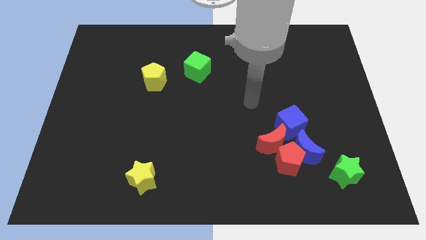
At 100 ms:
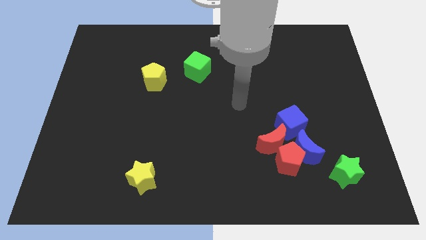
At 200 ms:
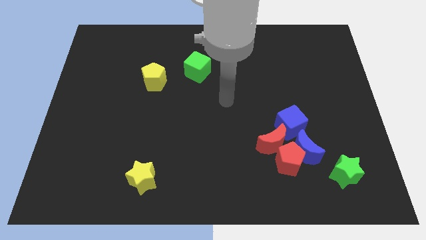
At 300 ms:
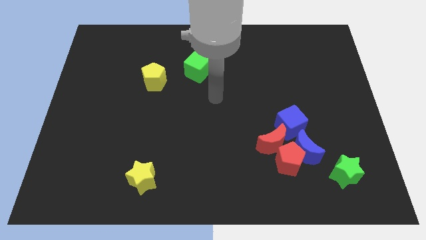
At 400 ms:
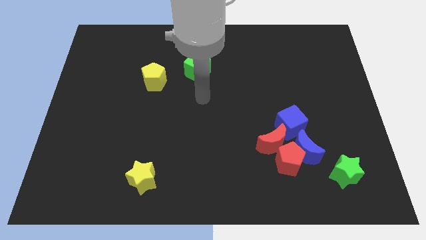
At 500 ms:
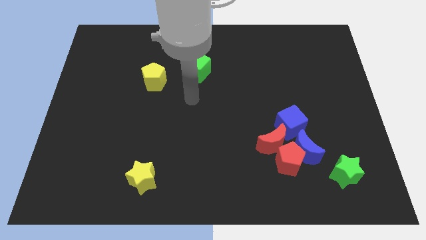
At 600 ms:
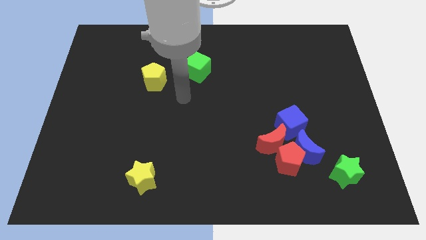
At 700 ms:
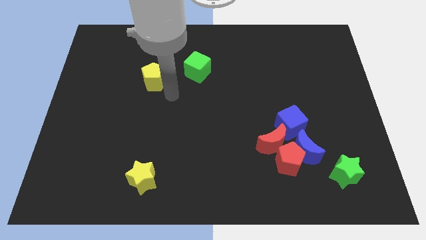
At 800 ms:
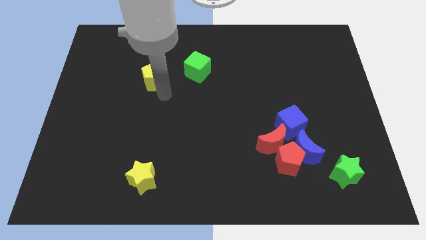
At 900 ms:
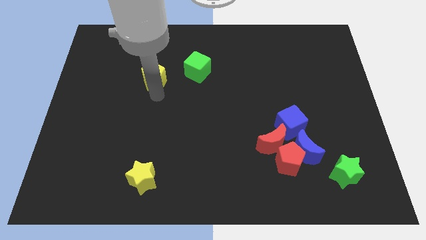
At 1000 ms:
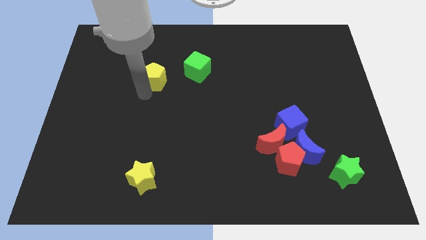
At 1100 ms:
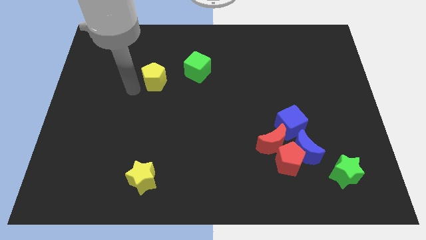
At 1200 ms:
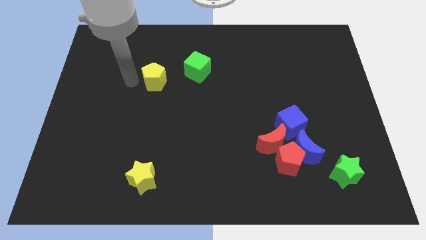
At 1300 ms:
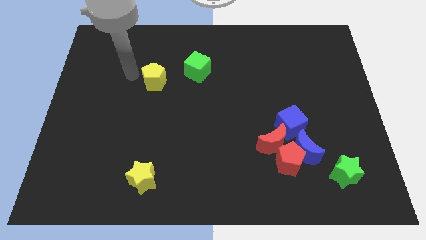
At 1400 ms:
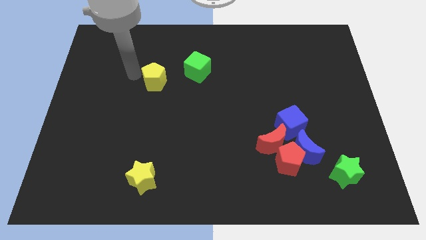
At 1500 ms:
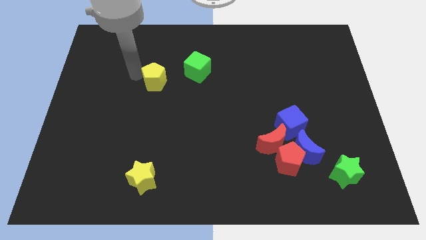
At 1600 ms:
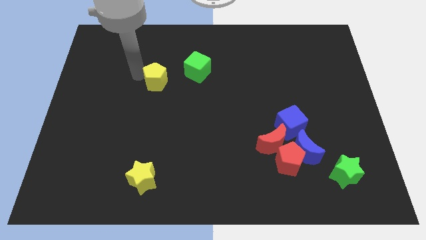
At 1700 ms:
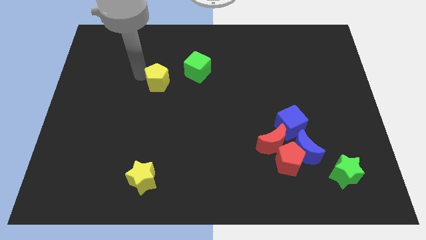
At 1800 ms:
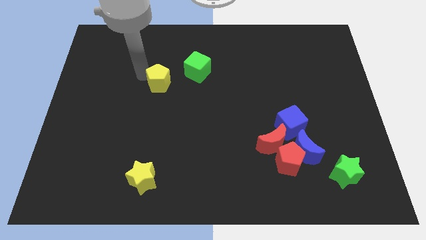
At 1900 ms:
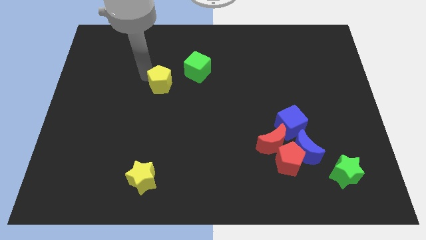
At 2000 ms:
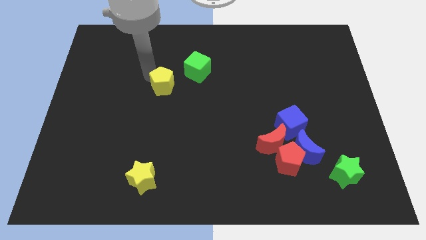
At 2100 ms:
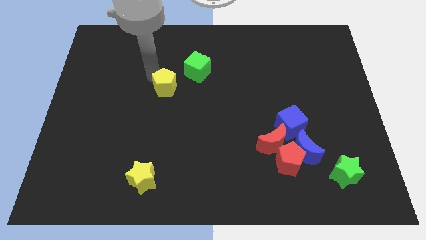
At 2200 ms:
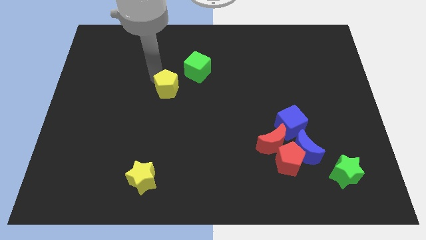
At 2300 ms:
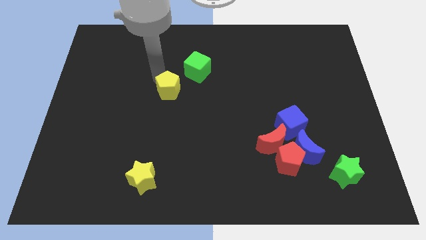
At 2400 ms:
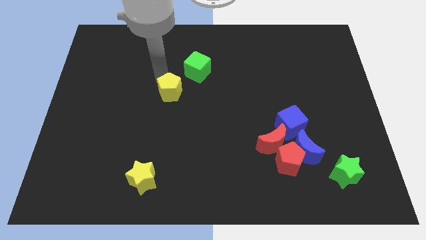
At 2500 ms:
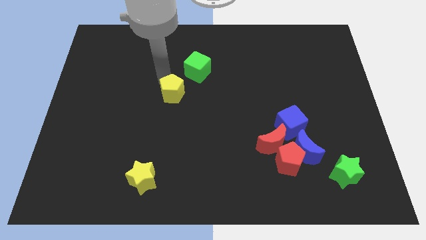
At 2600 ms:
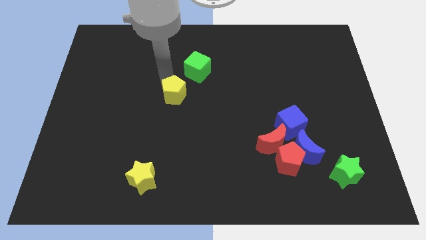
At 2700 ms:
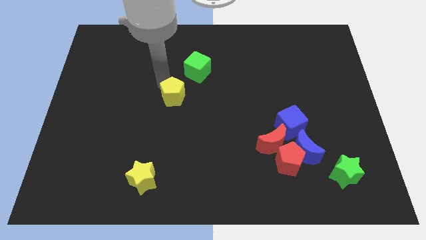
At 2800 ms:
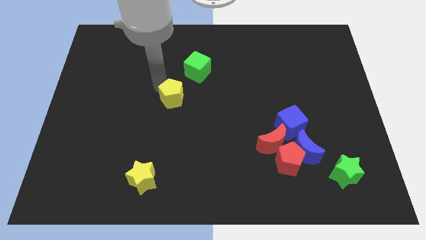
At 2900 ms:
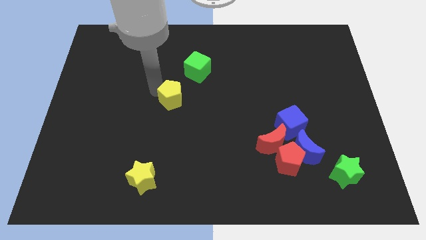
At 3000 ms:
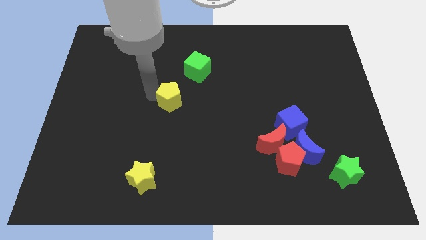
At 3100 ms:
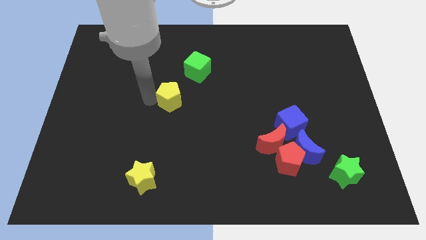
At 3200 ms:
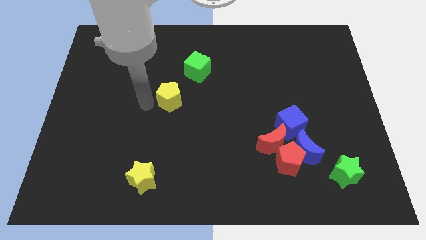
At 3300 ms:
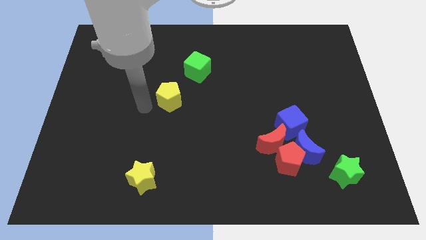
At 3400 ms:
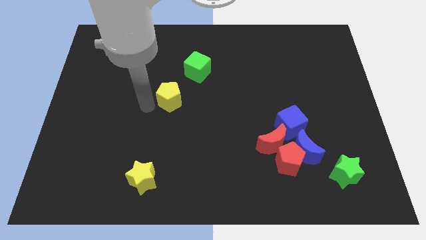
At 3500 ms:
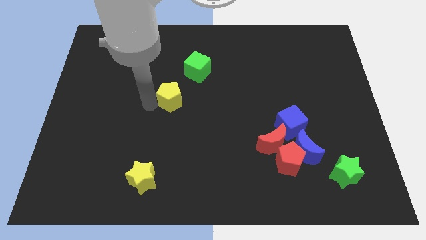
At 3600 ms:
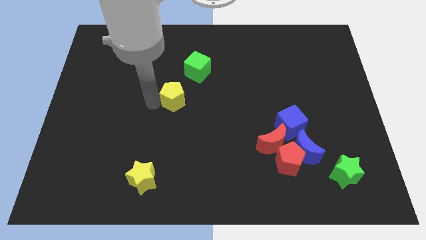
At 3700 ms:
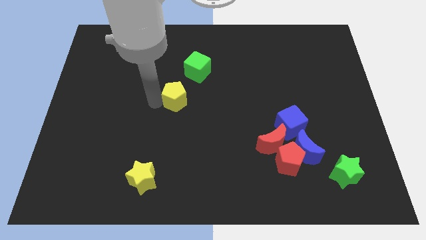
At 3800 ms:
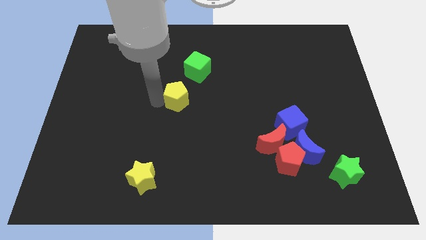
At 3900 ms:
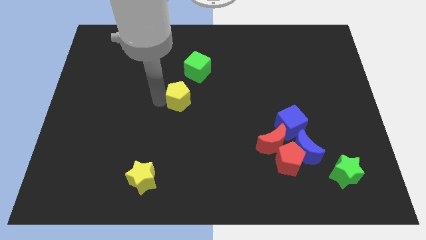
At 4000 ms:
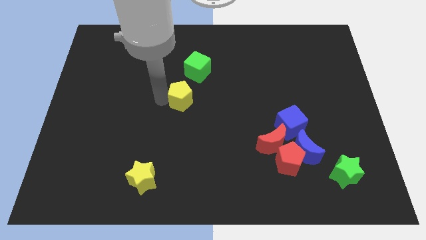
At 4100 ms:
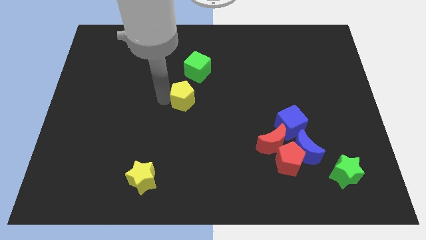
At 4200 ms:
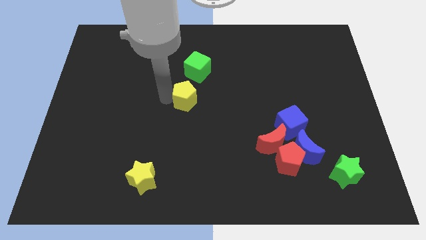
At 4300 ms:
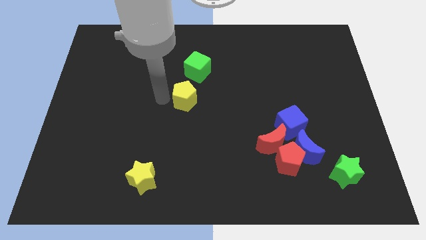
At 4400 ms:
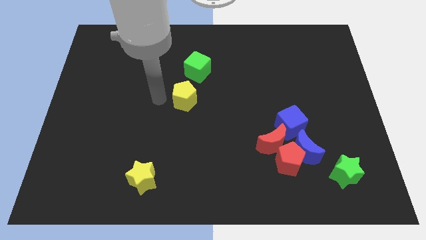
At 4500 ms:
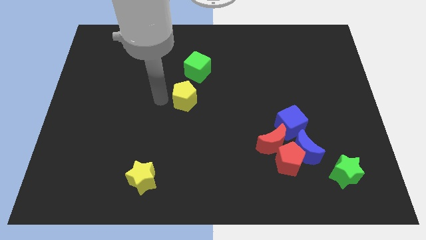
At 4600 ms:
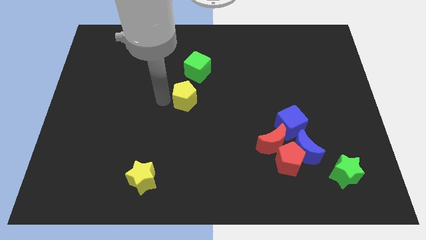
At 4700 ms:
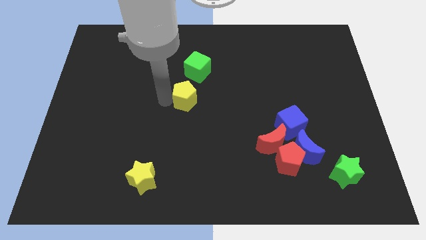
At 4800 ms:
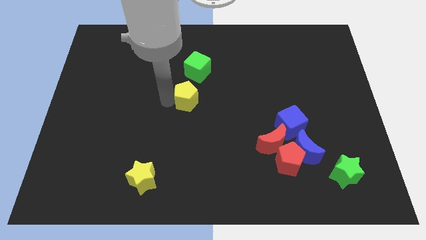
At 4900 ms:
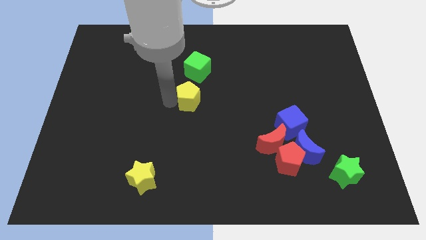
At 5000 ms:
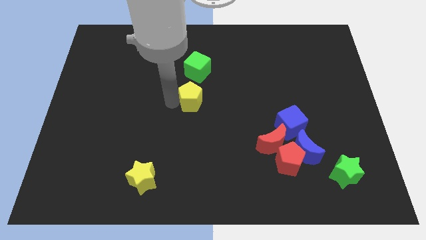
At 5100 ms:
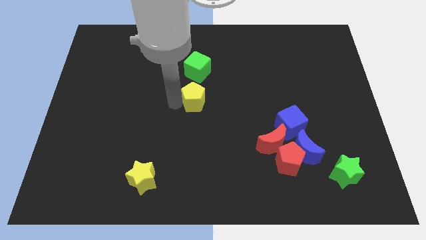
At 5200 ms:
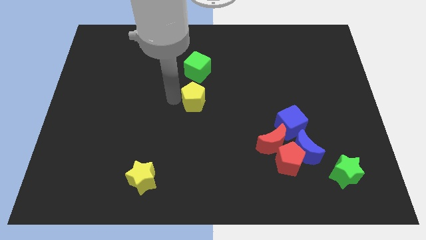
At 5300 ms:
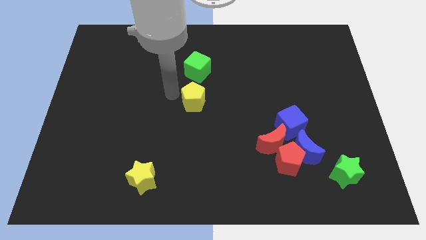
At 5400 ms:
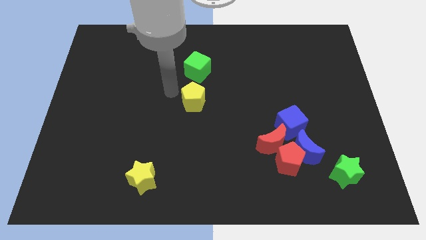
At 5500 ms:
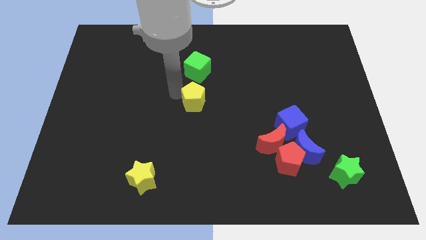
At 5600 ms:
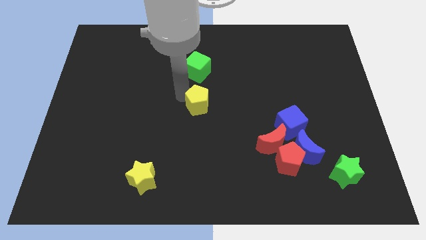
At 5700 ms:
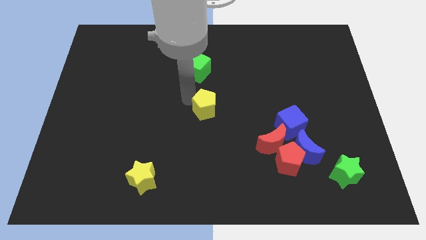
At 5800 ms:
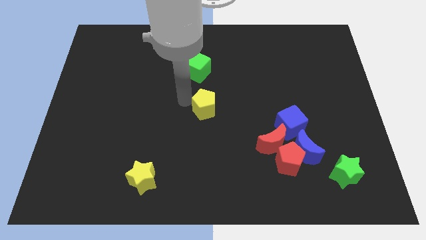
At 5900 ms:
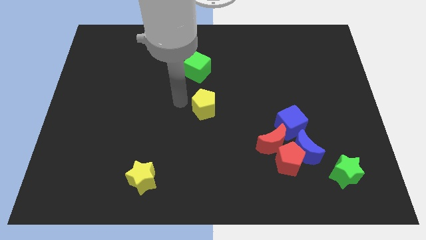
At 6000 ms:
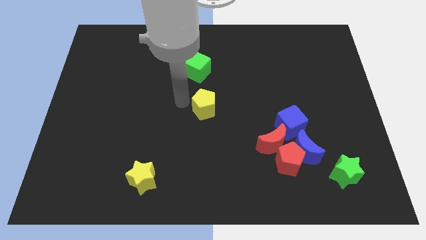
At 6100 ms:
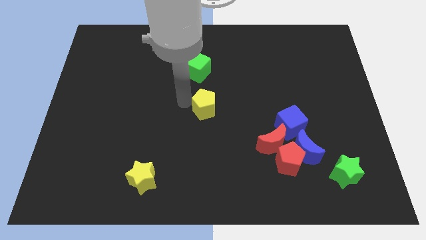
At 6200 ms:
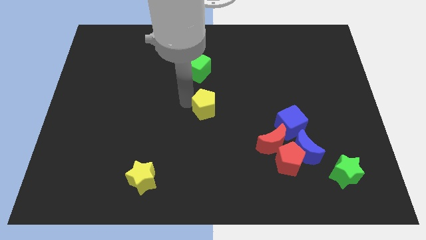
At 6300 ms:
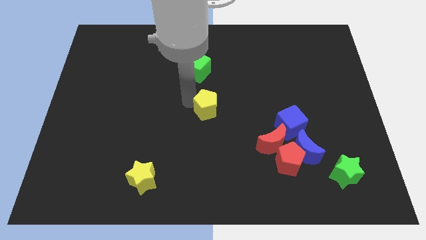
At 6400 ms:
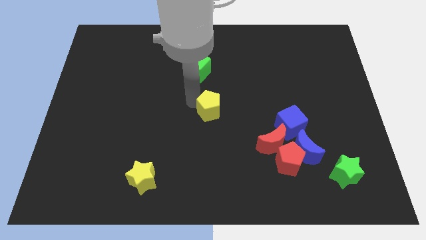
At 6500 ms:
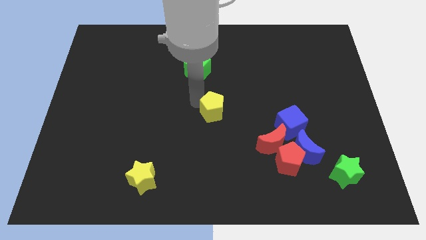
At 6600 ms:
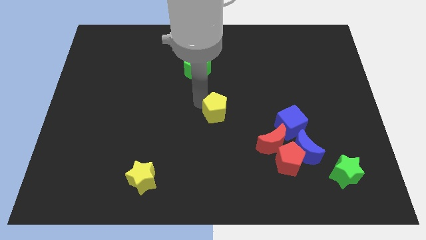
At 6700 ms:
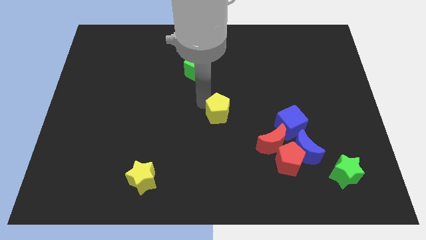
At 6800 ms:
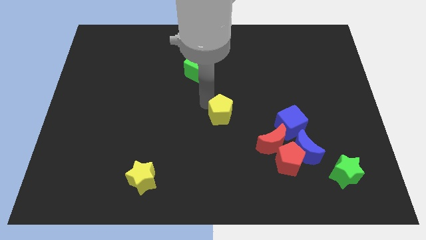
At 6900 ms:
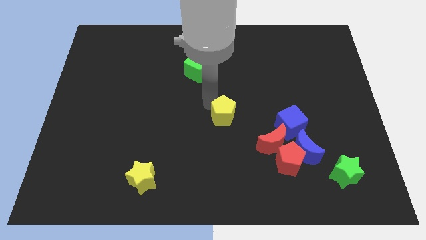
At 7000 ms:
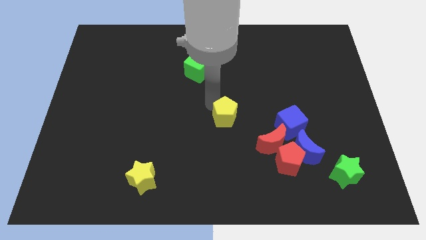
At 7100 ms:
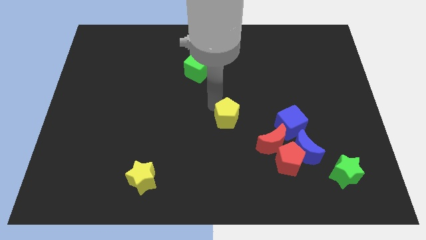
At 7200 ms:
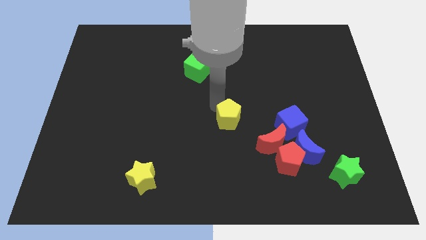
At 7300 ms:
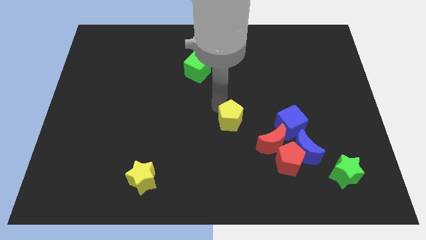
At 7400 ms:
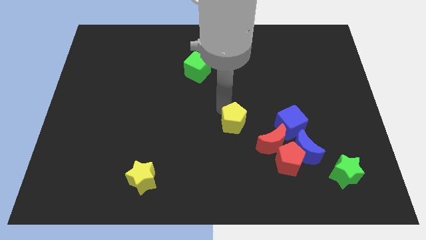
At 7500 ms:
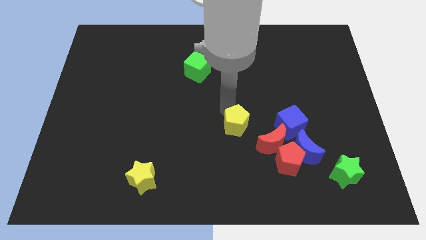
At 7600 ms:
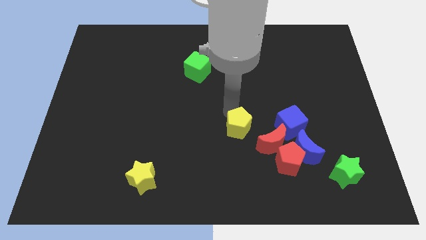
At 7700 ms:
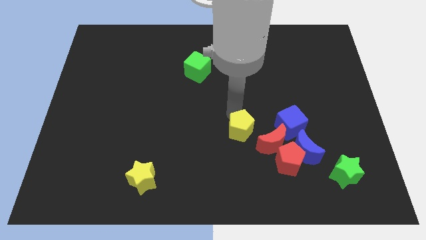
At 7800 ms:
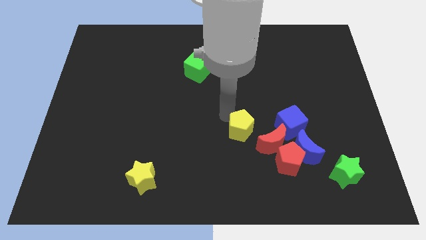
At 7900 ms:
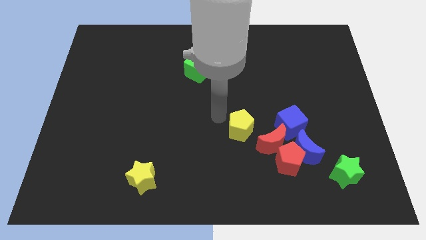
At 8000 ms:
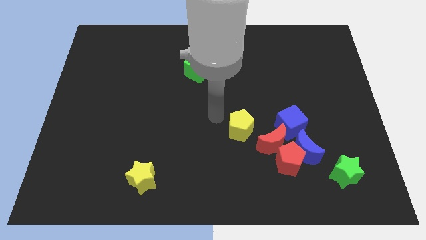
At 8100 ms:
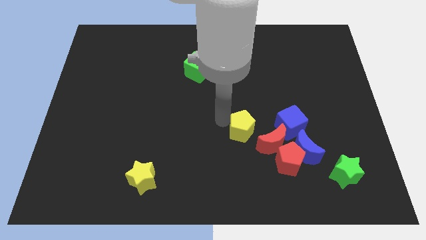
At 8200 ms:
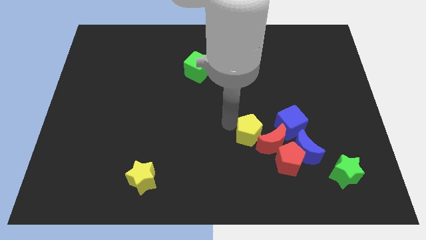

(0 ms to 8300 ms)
push the yellow pentagon next to the red moon
